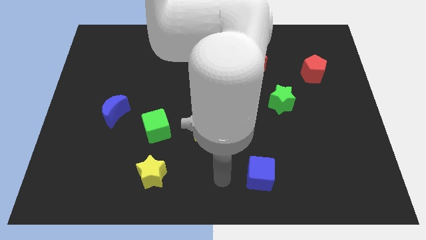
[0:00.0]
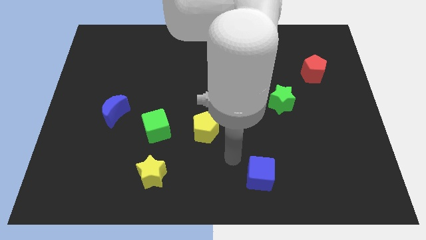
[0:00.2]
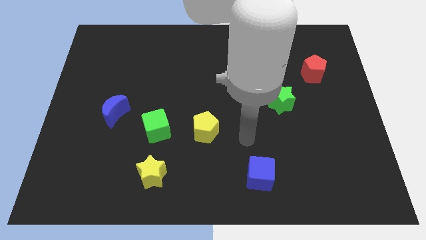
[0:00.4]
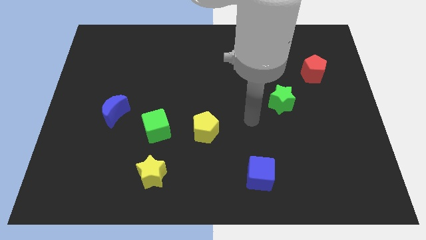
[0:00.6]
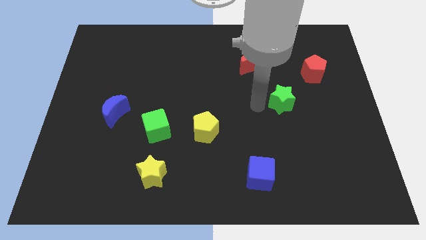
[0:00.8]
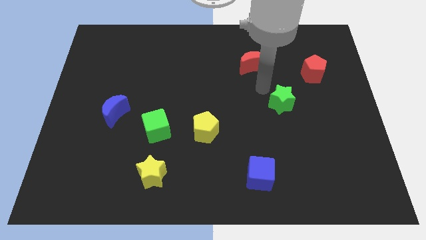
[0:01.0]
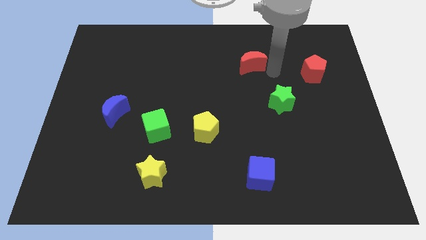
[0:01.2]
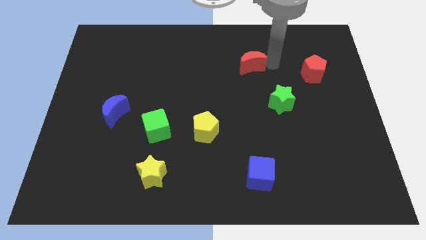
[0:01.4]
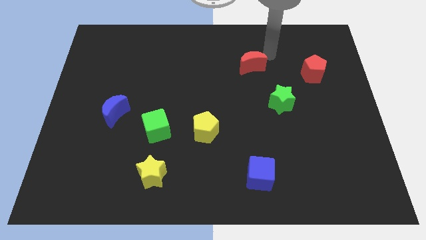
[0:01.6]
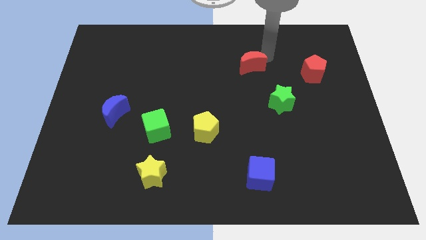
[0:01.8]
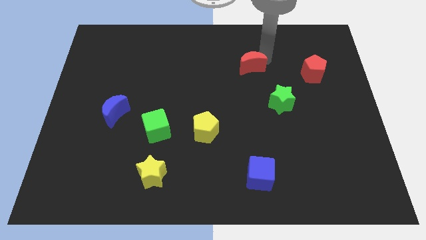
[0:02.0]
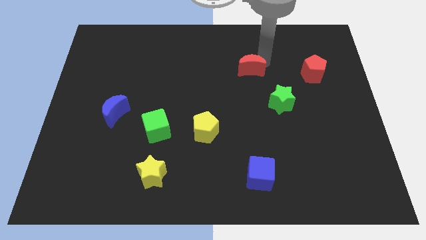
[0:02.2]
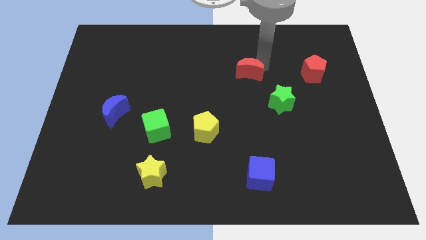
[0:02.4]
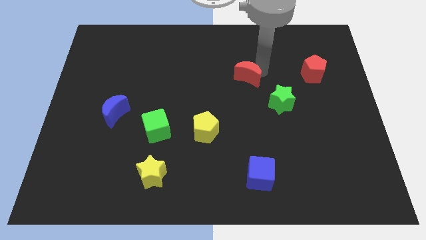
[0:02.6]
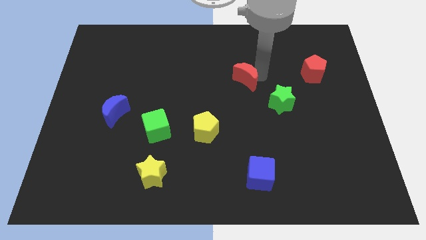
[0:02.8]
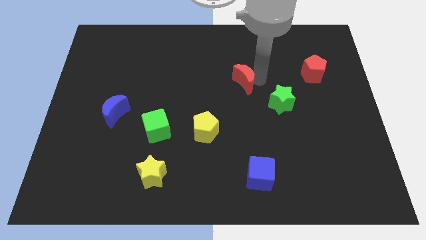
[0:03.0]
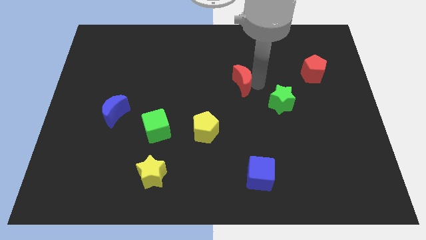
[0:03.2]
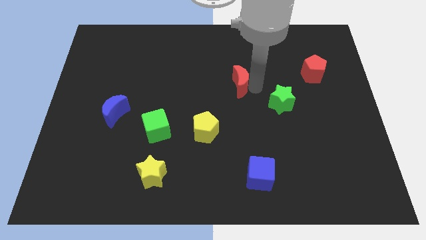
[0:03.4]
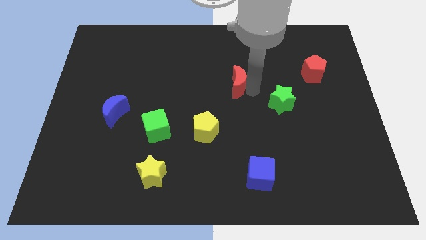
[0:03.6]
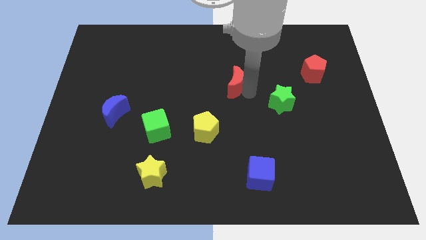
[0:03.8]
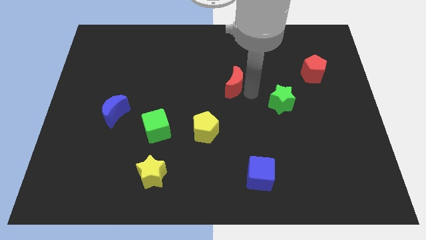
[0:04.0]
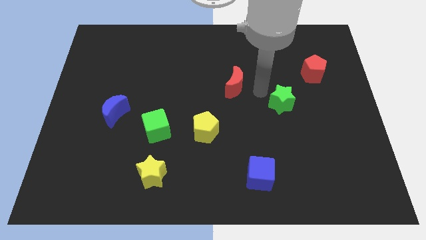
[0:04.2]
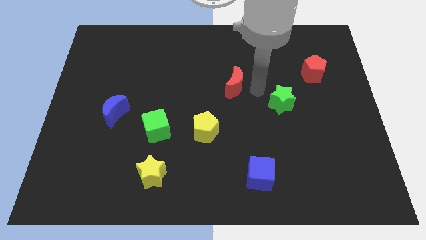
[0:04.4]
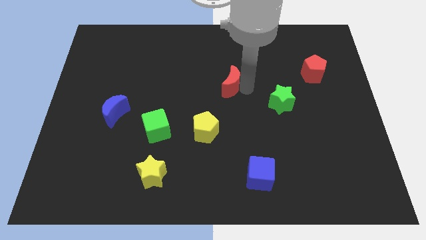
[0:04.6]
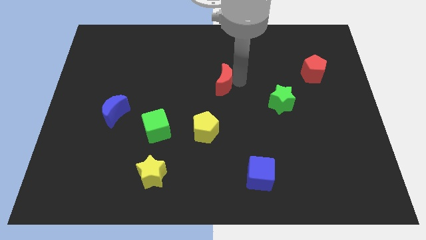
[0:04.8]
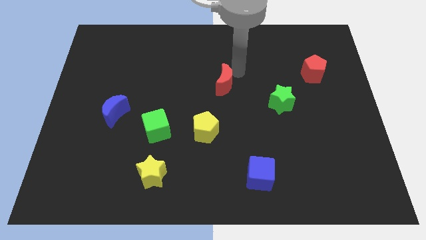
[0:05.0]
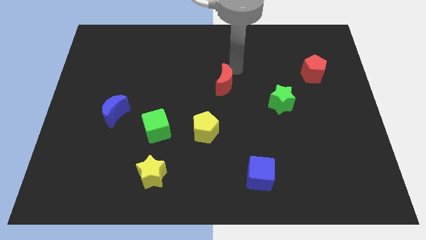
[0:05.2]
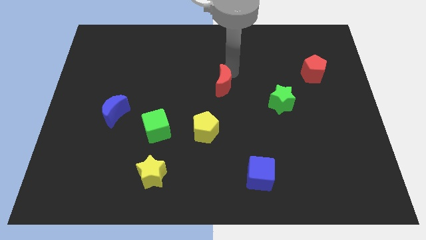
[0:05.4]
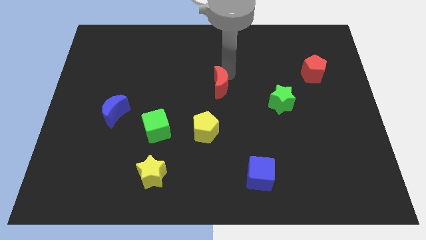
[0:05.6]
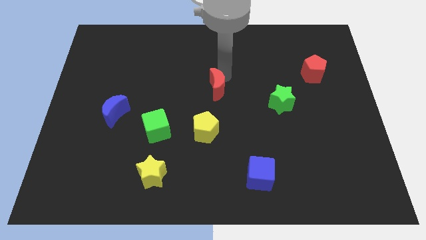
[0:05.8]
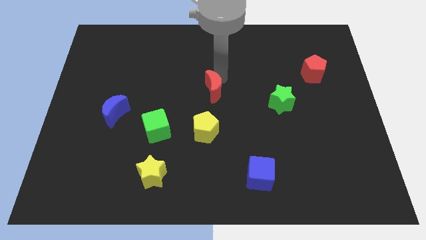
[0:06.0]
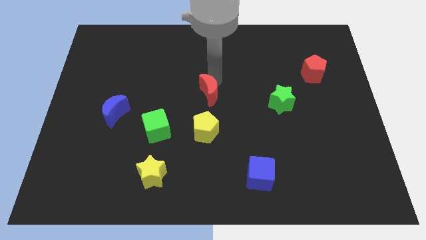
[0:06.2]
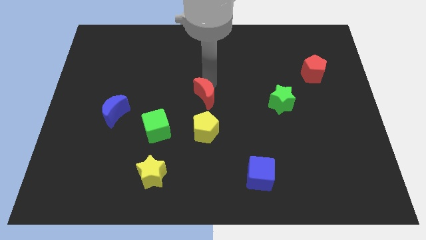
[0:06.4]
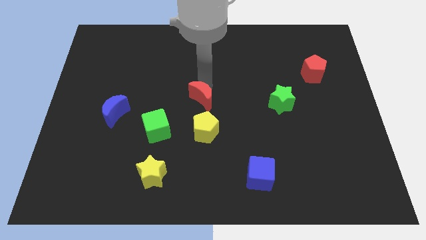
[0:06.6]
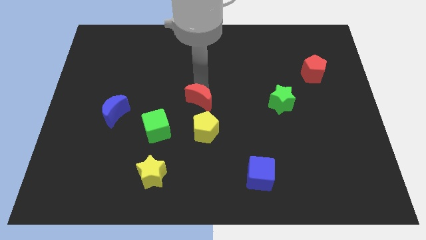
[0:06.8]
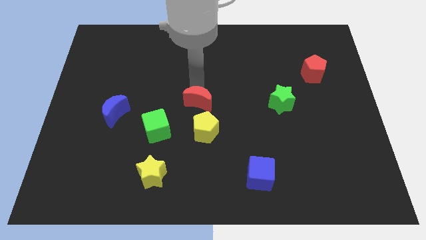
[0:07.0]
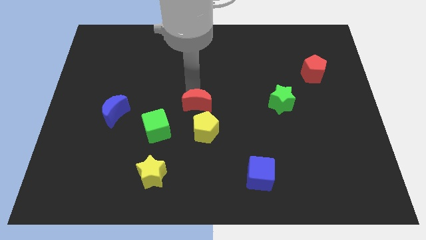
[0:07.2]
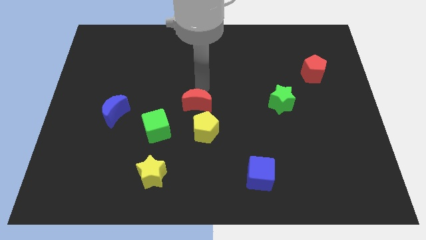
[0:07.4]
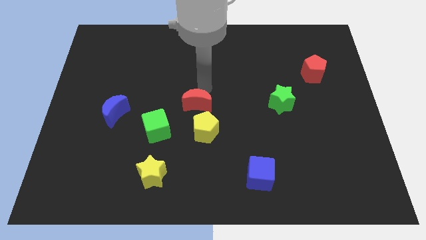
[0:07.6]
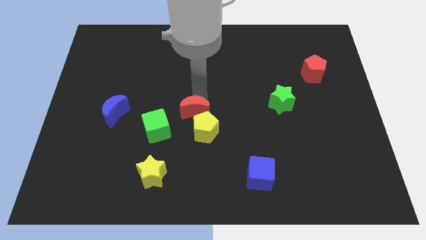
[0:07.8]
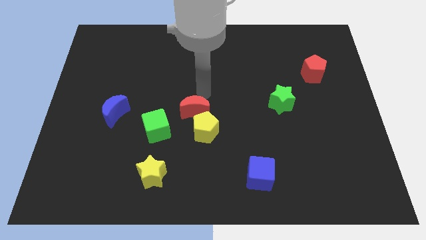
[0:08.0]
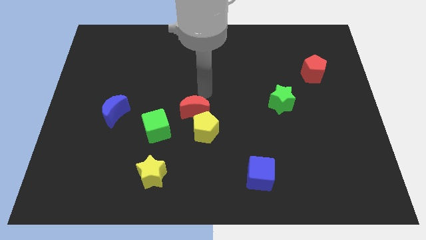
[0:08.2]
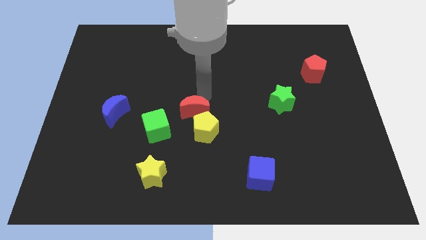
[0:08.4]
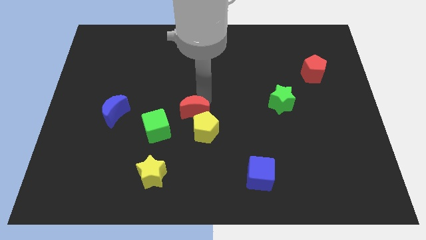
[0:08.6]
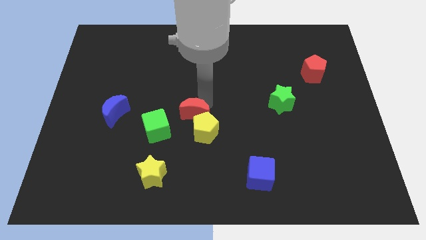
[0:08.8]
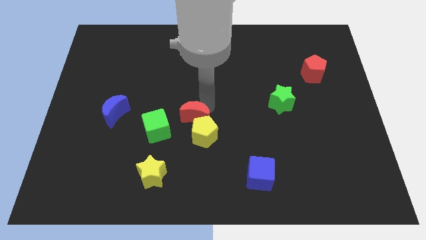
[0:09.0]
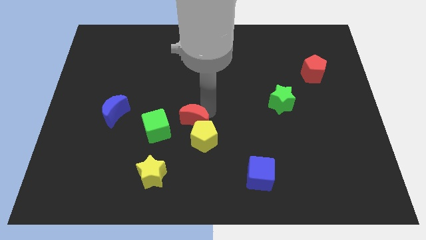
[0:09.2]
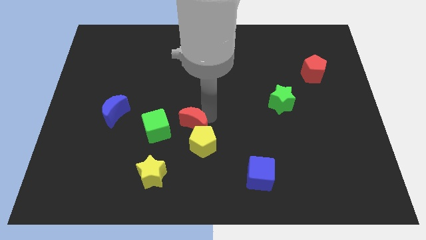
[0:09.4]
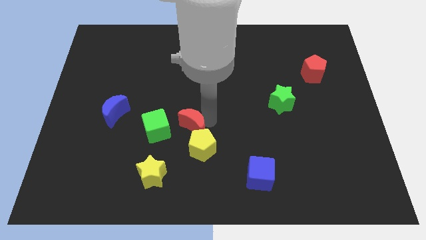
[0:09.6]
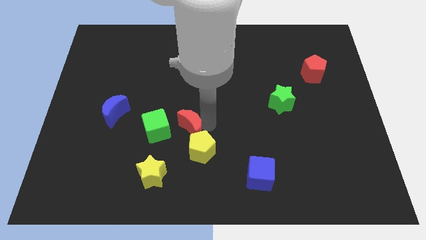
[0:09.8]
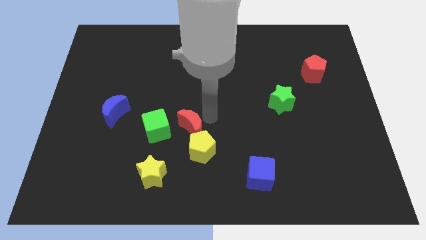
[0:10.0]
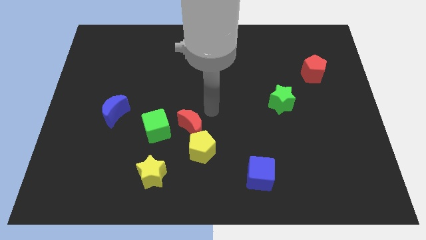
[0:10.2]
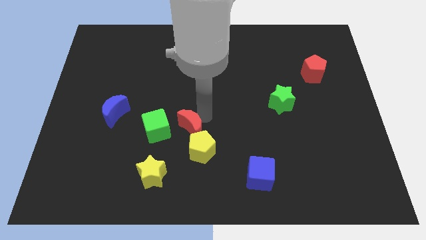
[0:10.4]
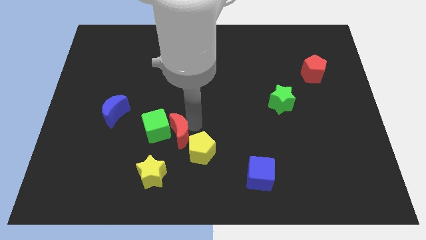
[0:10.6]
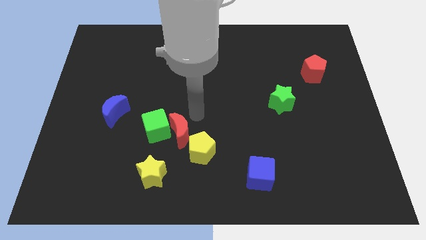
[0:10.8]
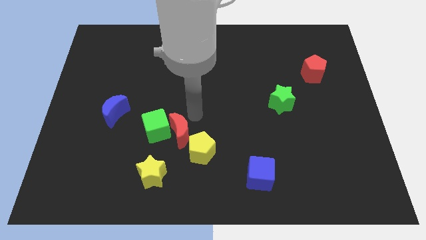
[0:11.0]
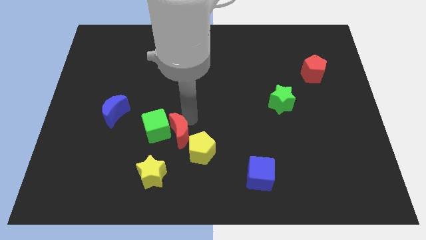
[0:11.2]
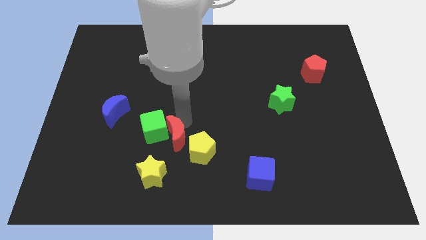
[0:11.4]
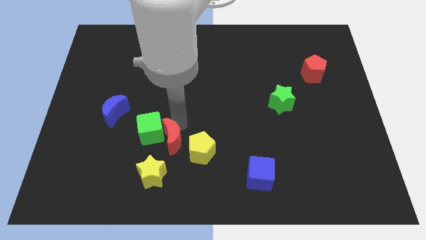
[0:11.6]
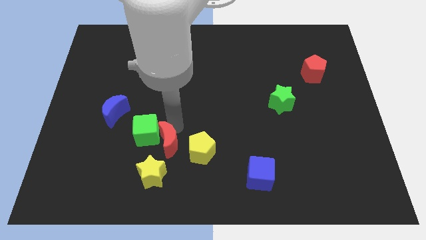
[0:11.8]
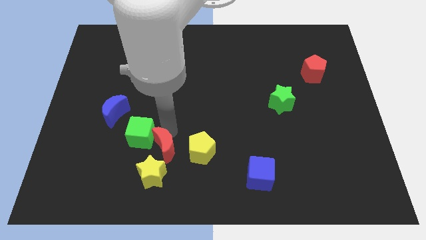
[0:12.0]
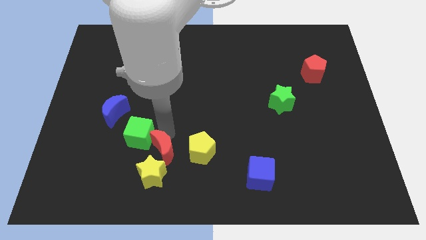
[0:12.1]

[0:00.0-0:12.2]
slide the red moon to the yellow star
